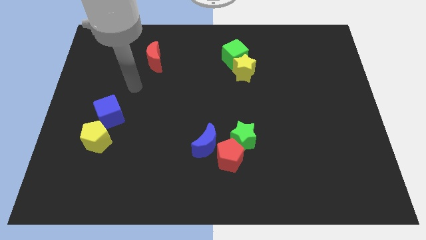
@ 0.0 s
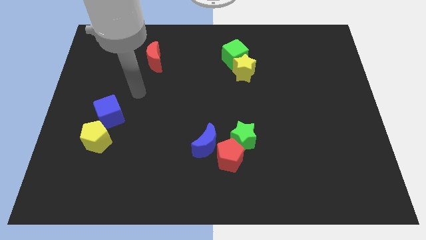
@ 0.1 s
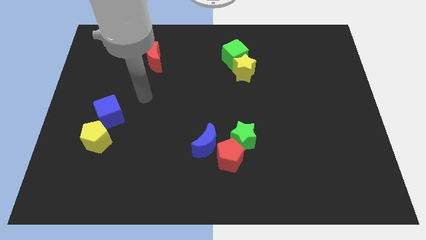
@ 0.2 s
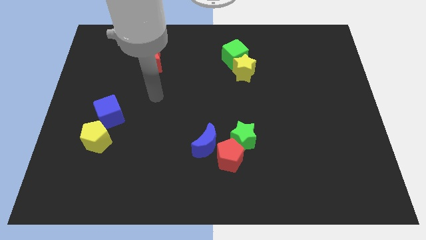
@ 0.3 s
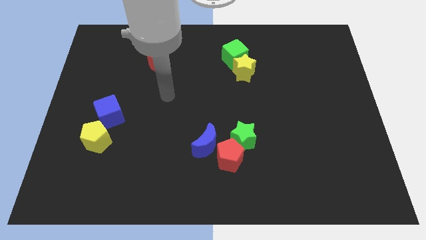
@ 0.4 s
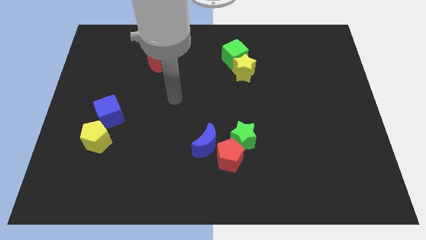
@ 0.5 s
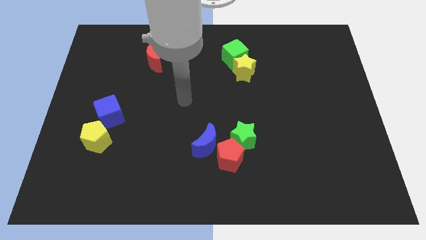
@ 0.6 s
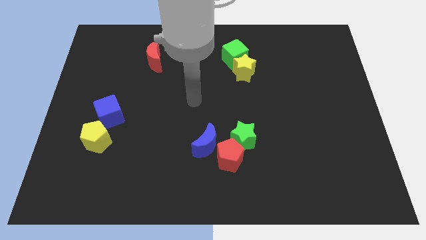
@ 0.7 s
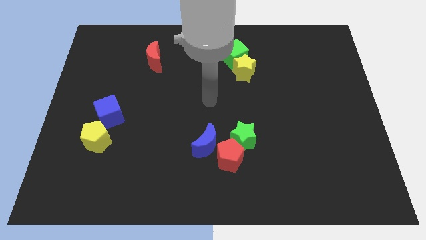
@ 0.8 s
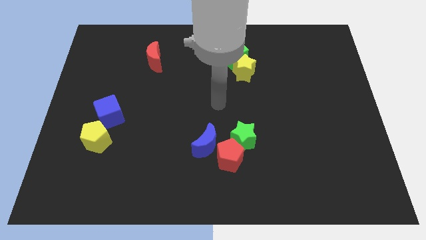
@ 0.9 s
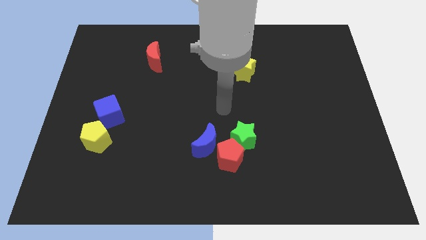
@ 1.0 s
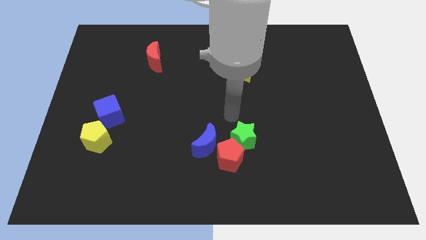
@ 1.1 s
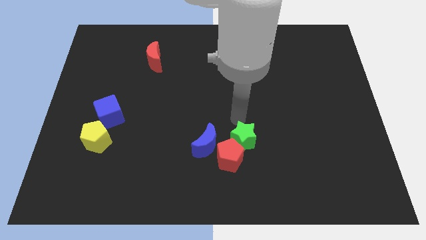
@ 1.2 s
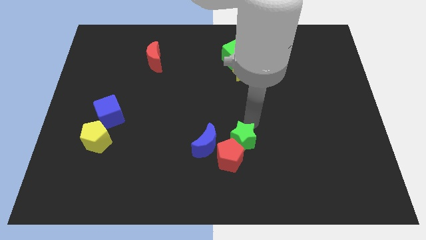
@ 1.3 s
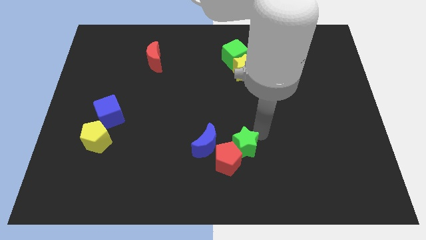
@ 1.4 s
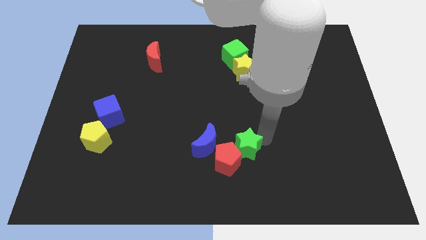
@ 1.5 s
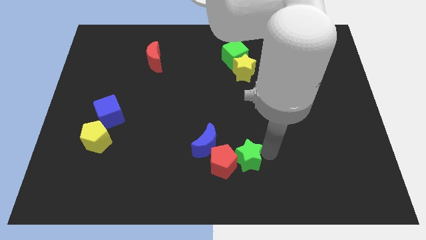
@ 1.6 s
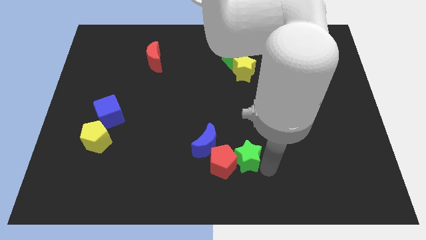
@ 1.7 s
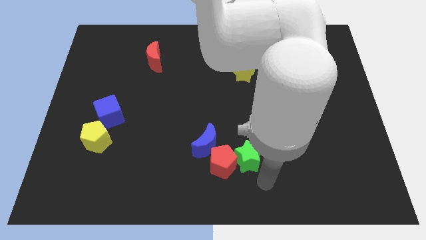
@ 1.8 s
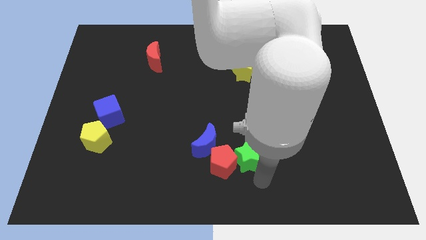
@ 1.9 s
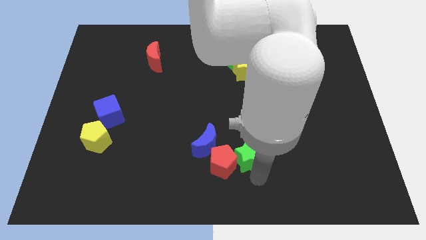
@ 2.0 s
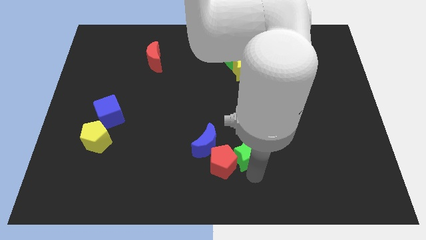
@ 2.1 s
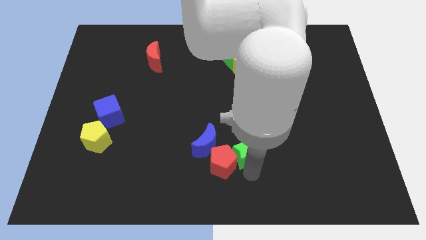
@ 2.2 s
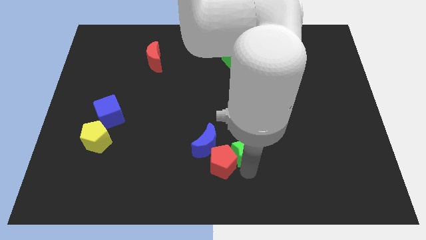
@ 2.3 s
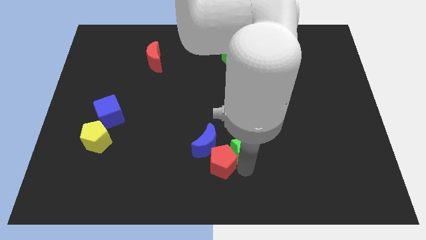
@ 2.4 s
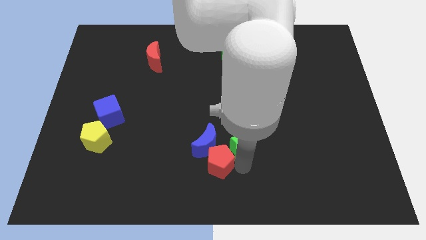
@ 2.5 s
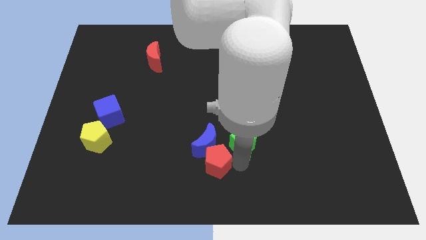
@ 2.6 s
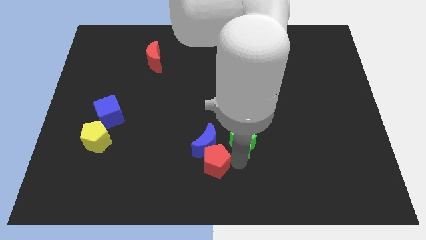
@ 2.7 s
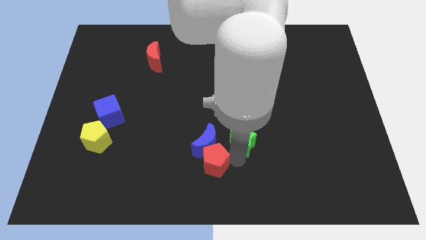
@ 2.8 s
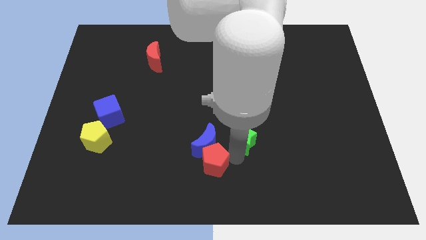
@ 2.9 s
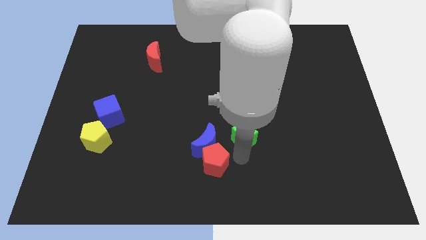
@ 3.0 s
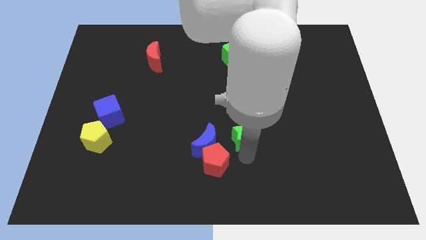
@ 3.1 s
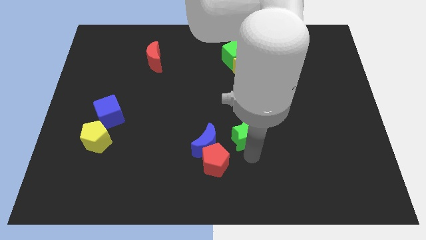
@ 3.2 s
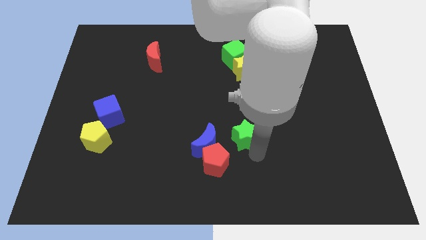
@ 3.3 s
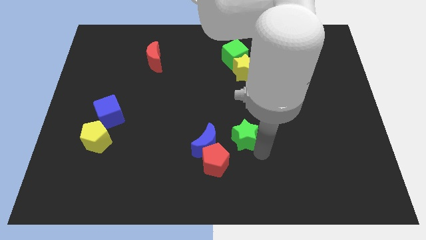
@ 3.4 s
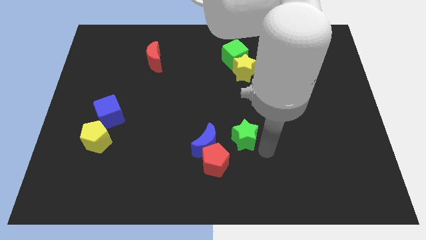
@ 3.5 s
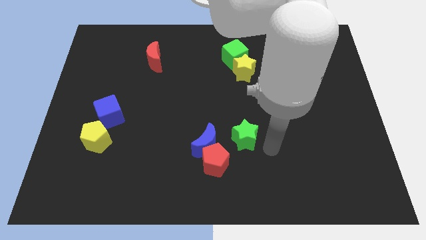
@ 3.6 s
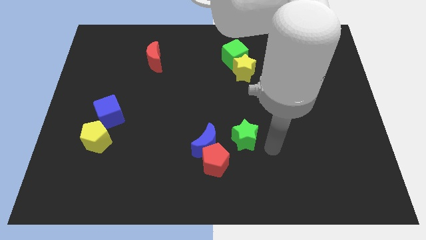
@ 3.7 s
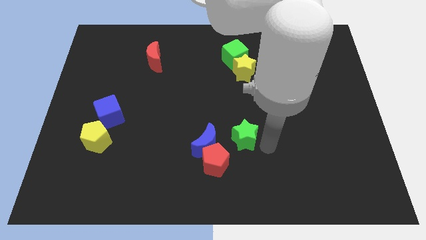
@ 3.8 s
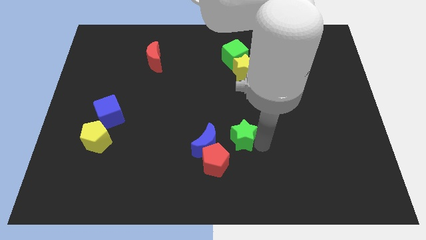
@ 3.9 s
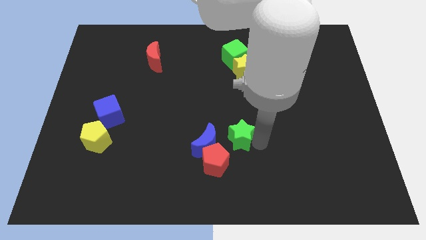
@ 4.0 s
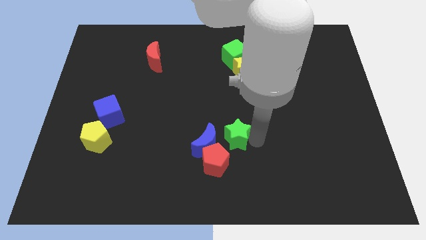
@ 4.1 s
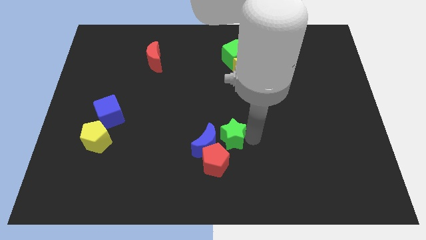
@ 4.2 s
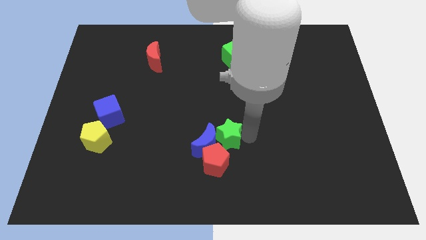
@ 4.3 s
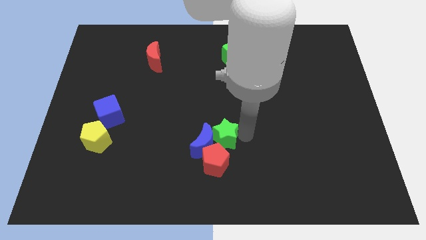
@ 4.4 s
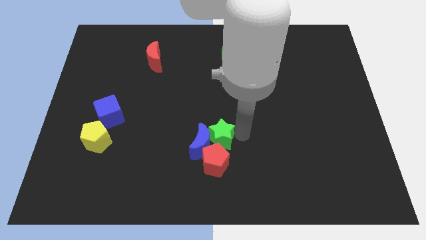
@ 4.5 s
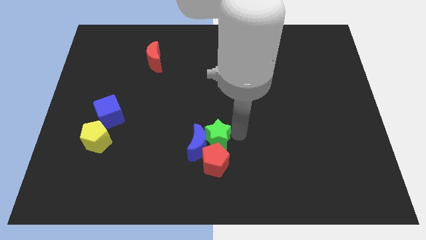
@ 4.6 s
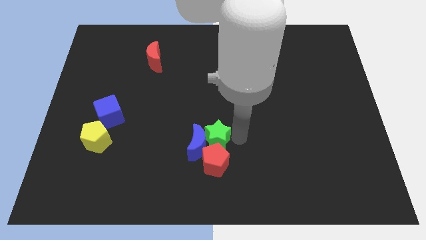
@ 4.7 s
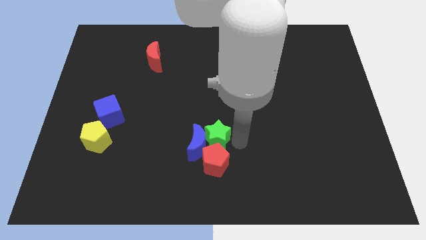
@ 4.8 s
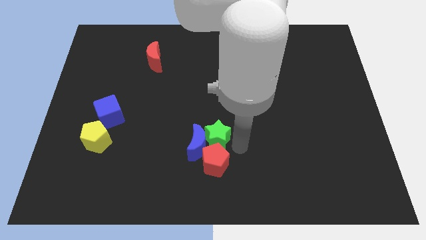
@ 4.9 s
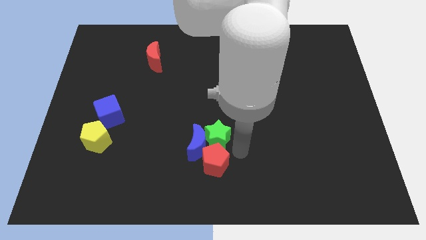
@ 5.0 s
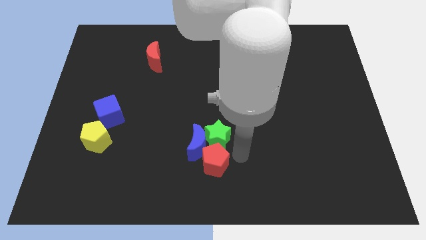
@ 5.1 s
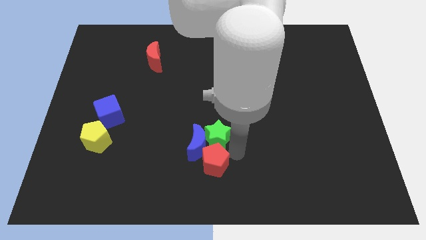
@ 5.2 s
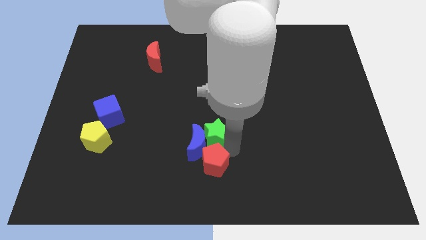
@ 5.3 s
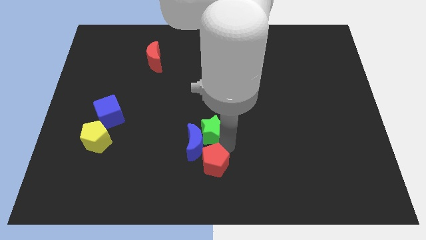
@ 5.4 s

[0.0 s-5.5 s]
push the green star a little left

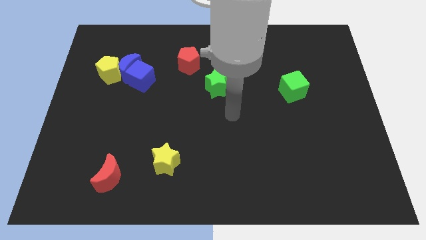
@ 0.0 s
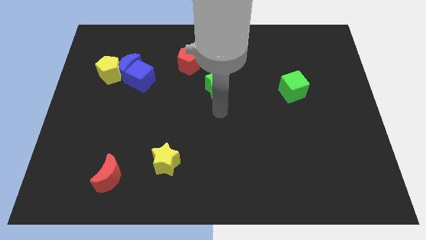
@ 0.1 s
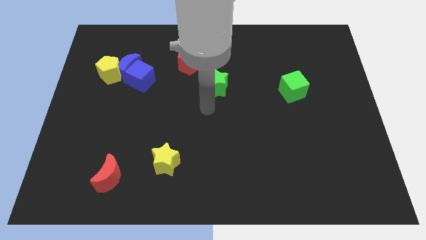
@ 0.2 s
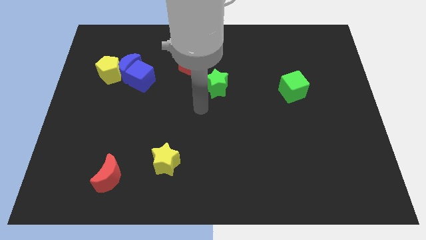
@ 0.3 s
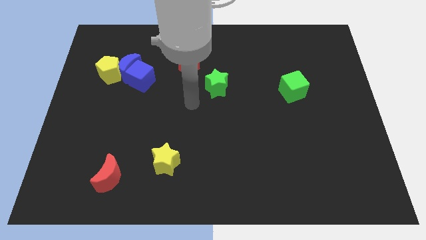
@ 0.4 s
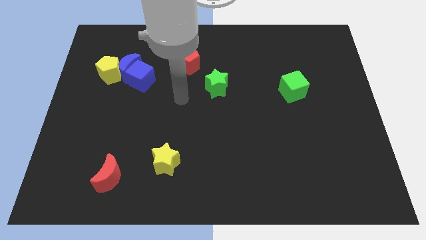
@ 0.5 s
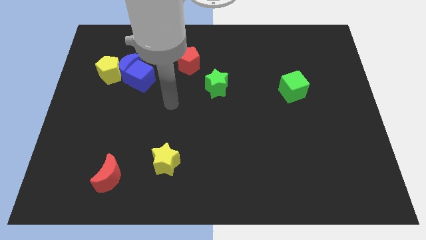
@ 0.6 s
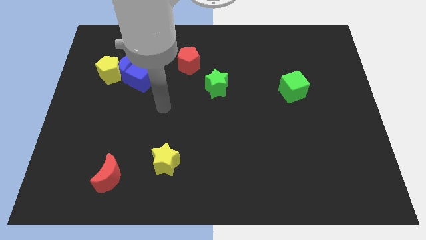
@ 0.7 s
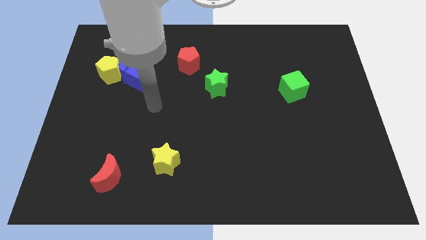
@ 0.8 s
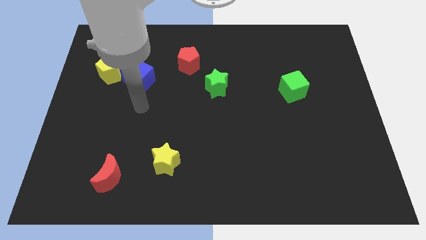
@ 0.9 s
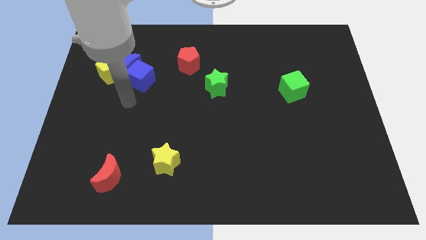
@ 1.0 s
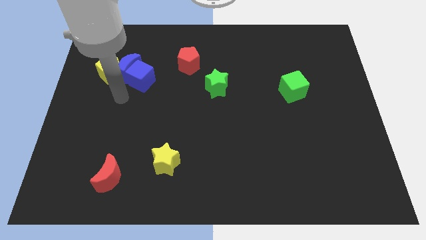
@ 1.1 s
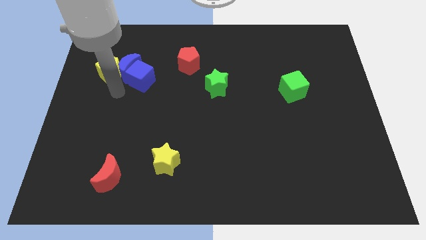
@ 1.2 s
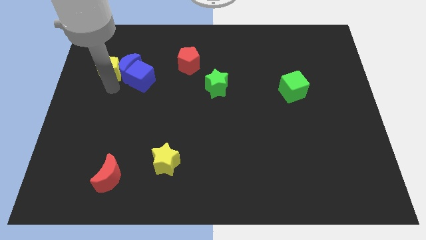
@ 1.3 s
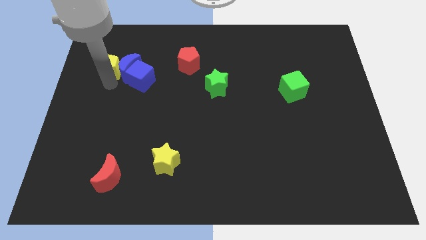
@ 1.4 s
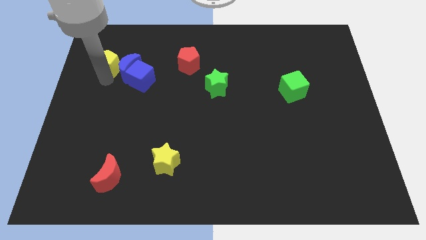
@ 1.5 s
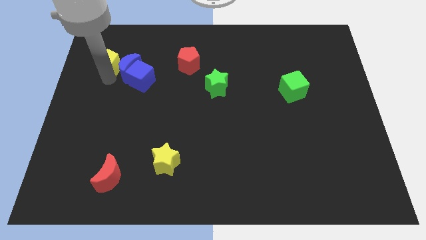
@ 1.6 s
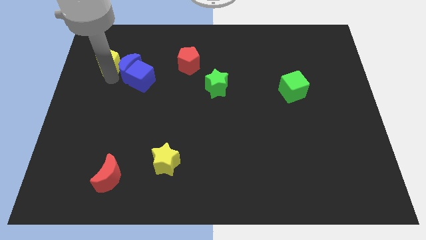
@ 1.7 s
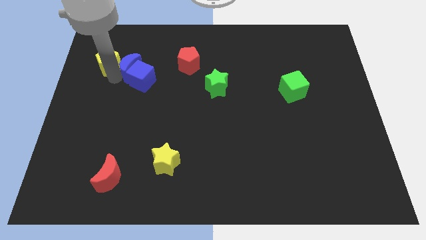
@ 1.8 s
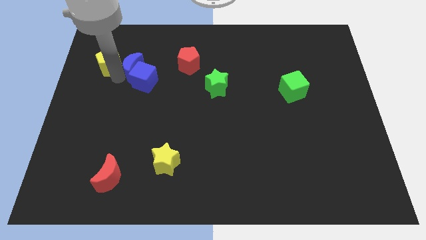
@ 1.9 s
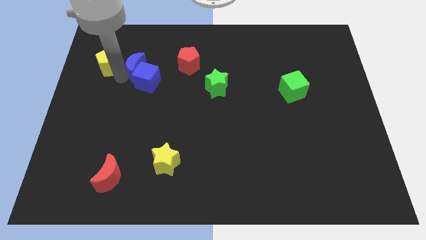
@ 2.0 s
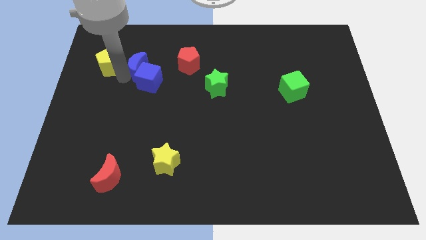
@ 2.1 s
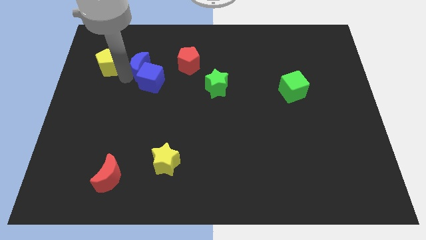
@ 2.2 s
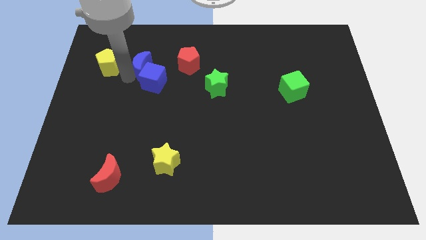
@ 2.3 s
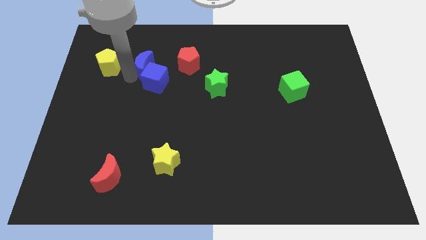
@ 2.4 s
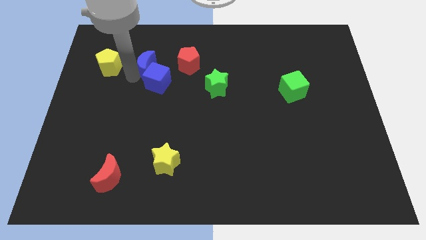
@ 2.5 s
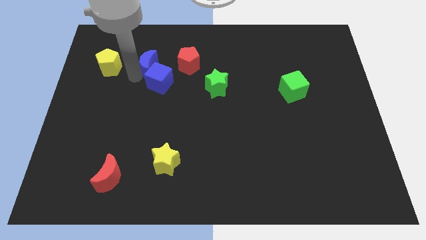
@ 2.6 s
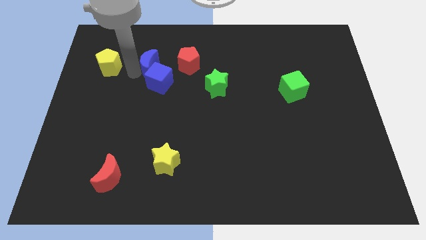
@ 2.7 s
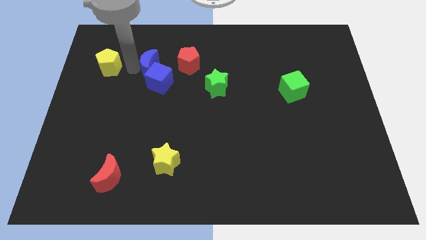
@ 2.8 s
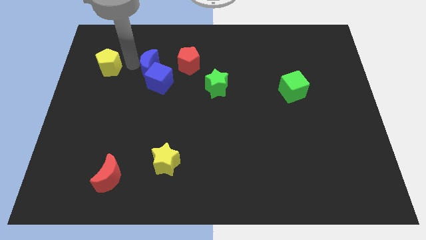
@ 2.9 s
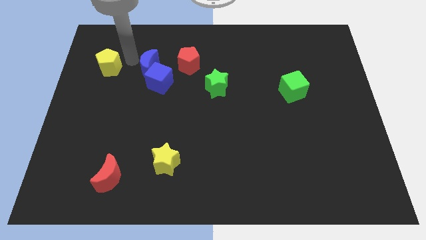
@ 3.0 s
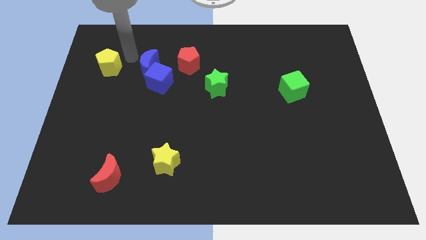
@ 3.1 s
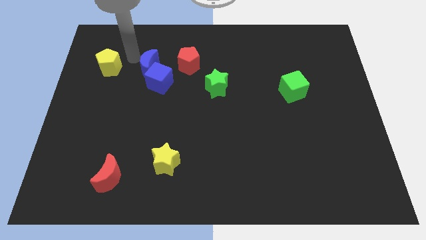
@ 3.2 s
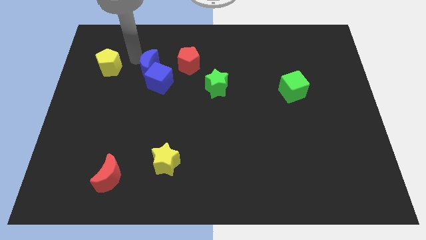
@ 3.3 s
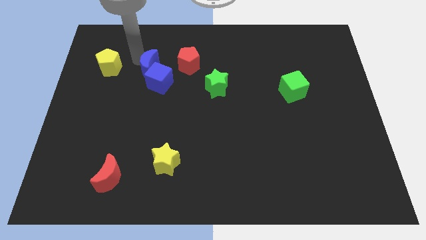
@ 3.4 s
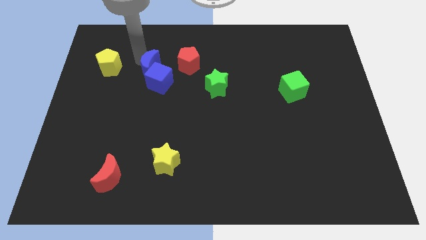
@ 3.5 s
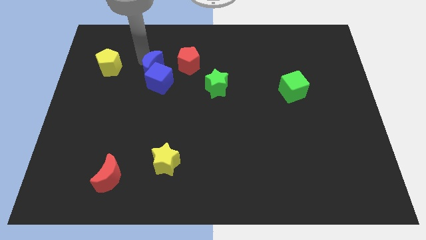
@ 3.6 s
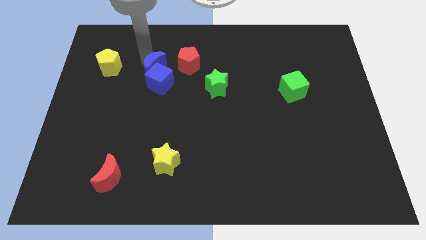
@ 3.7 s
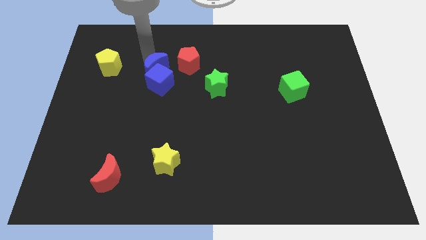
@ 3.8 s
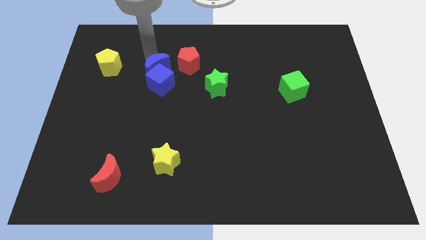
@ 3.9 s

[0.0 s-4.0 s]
slightly push the blue moon right
